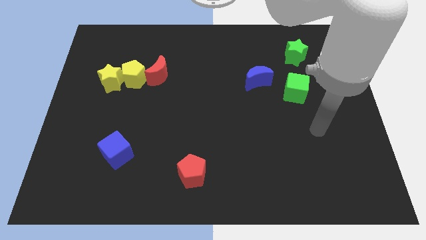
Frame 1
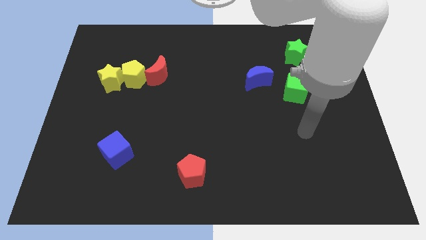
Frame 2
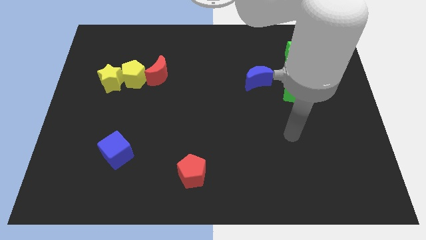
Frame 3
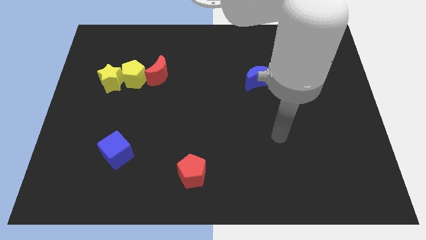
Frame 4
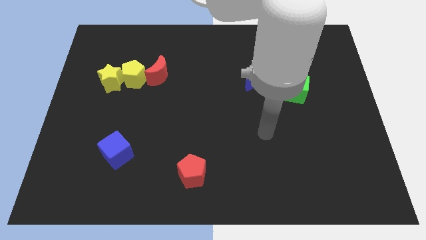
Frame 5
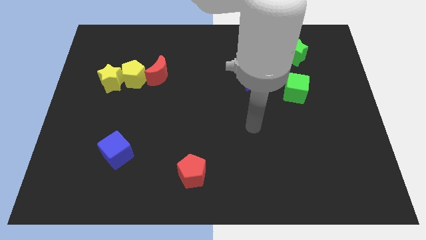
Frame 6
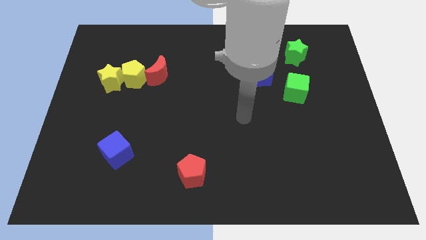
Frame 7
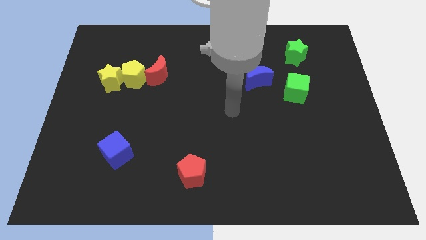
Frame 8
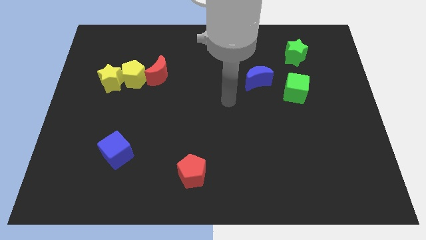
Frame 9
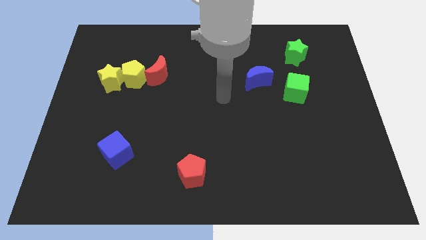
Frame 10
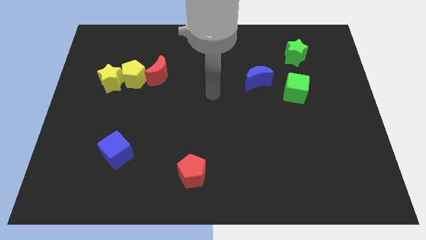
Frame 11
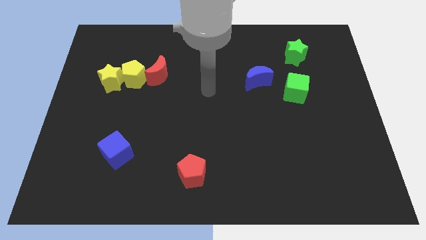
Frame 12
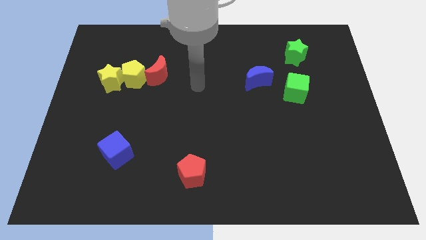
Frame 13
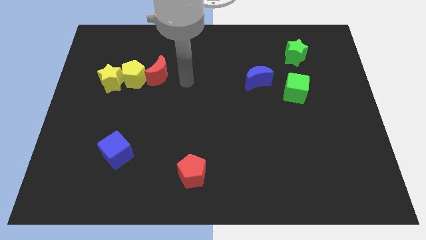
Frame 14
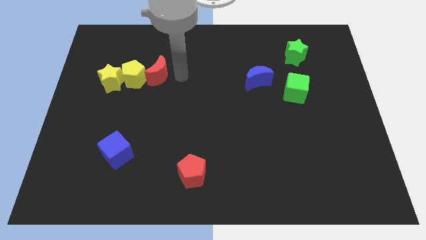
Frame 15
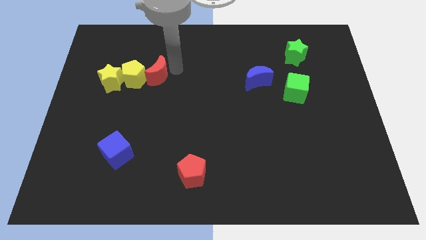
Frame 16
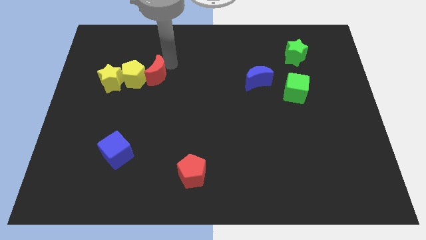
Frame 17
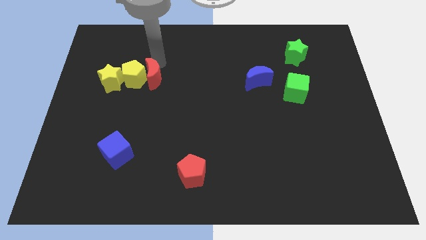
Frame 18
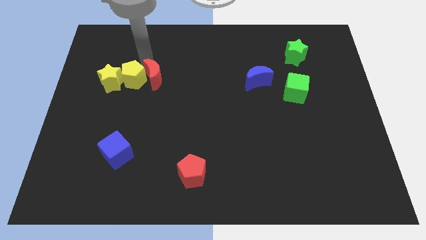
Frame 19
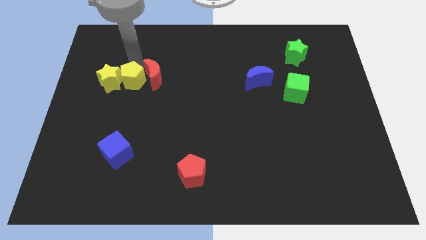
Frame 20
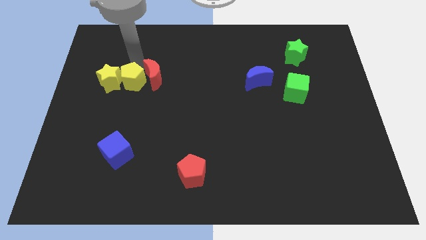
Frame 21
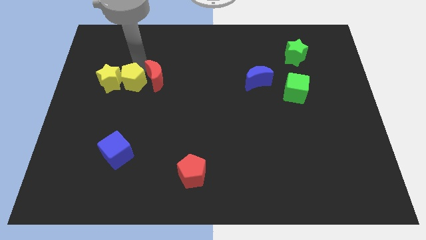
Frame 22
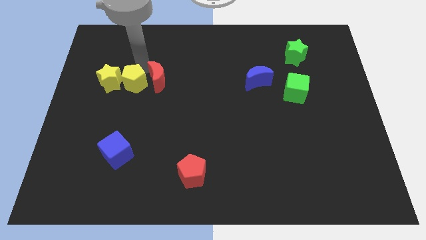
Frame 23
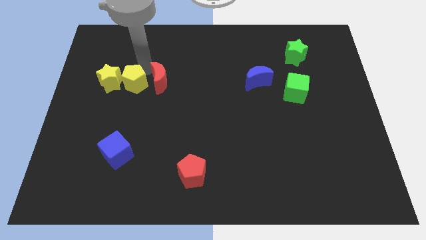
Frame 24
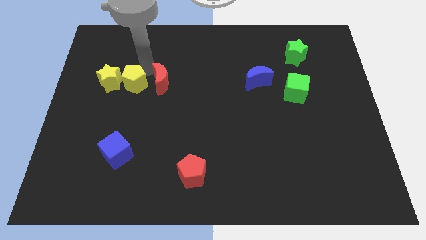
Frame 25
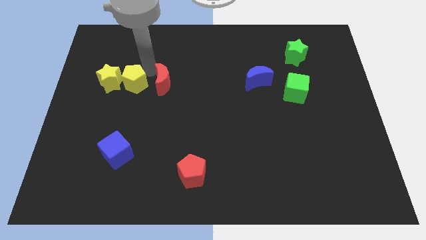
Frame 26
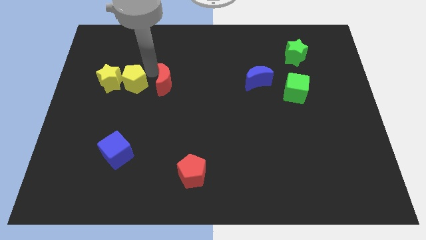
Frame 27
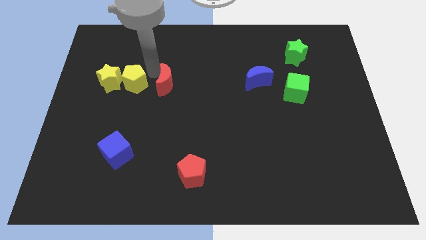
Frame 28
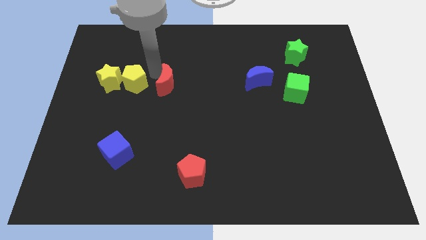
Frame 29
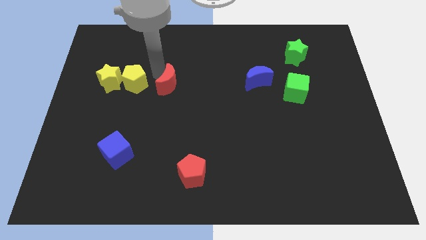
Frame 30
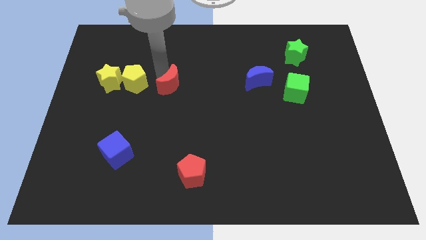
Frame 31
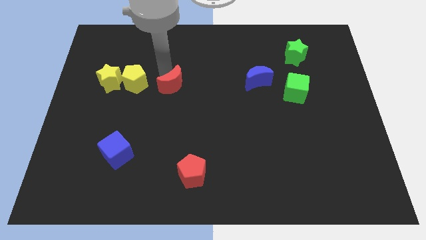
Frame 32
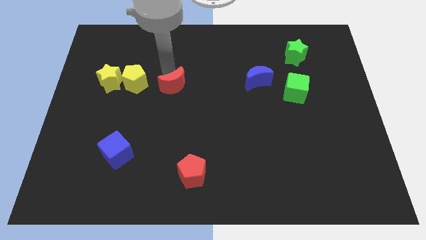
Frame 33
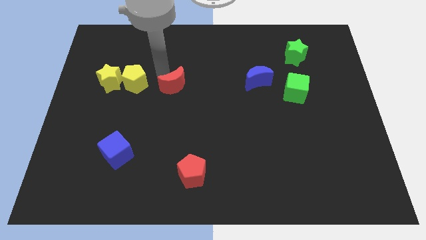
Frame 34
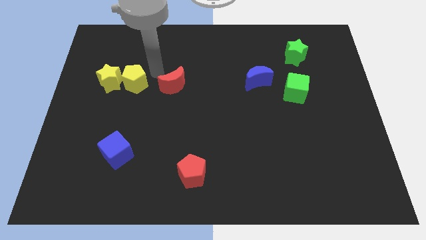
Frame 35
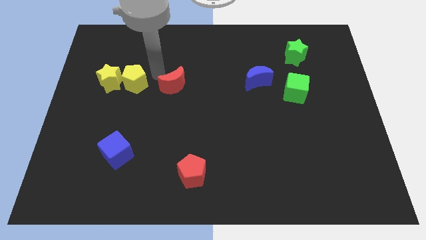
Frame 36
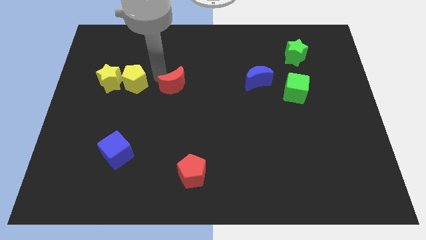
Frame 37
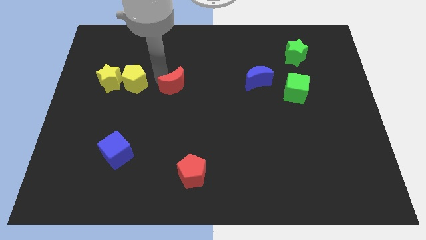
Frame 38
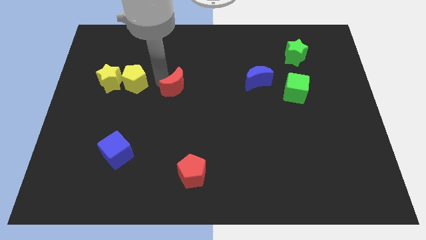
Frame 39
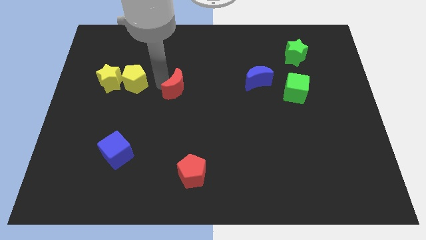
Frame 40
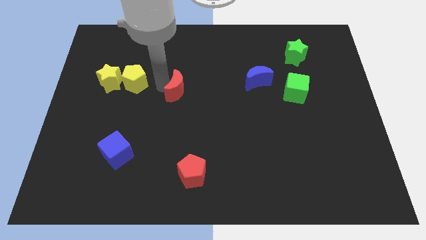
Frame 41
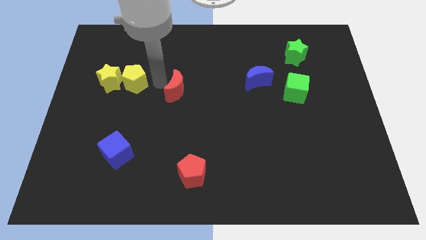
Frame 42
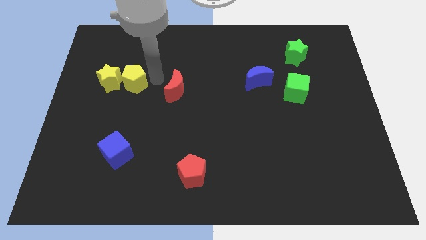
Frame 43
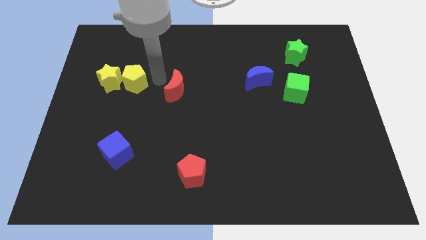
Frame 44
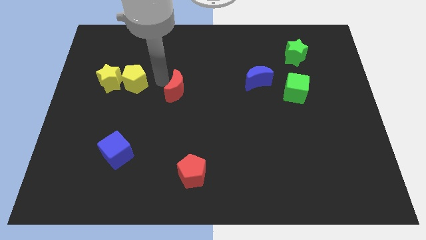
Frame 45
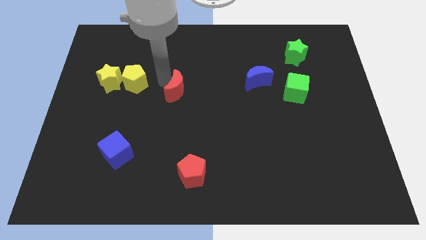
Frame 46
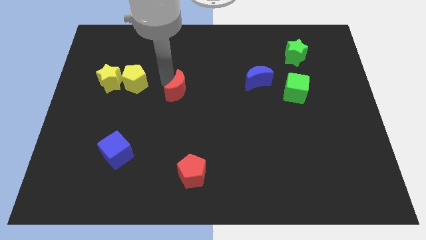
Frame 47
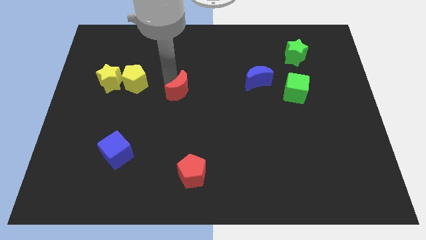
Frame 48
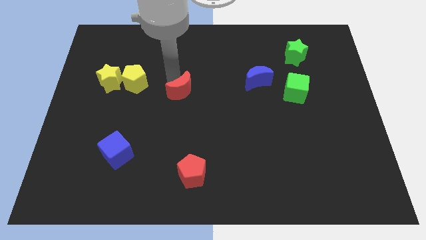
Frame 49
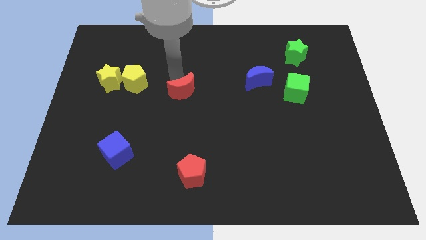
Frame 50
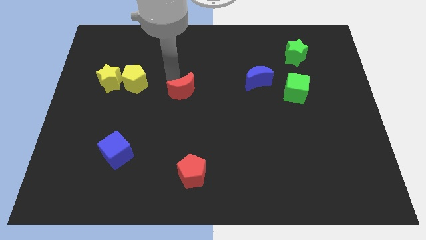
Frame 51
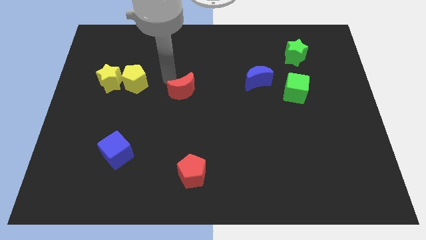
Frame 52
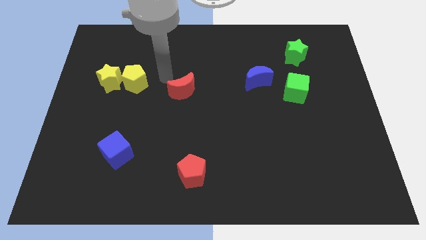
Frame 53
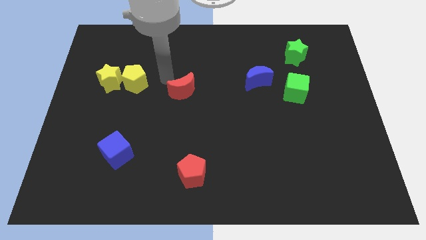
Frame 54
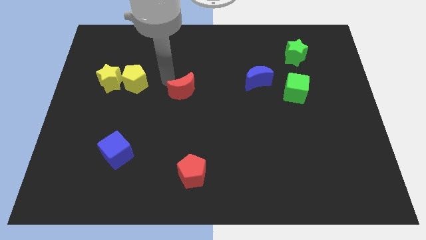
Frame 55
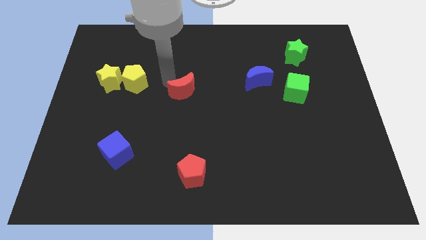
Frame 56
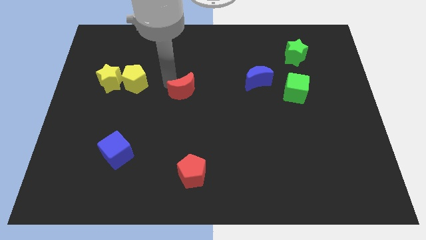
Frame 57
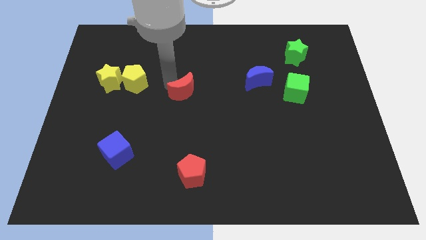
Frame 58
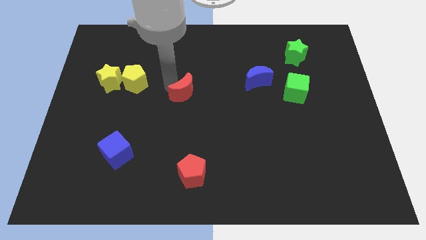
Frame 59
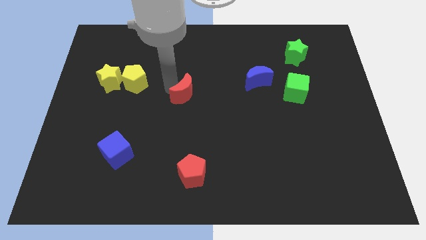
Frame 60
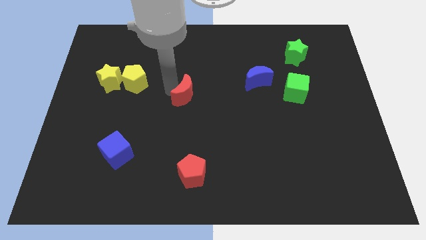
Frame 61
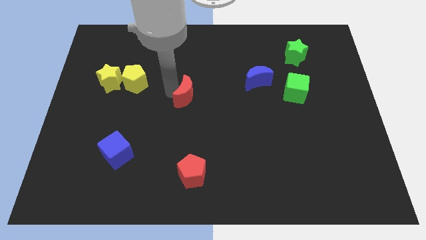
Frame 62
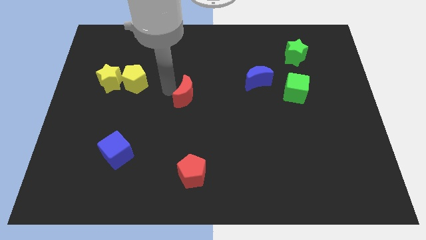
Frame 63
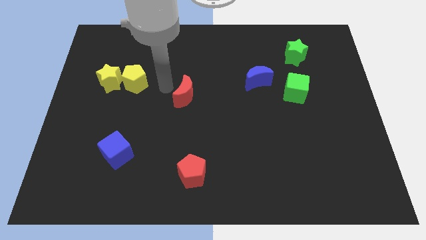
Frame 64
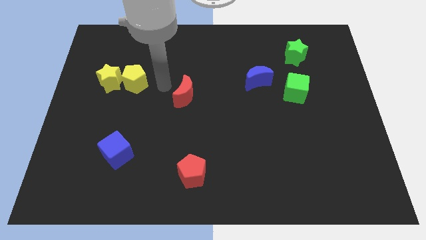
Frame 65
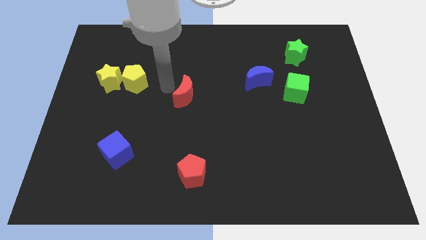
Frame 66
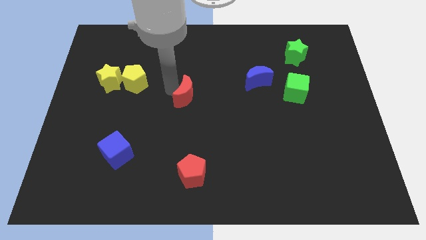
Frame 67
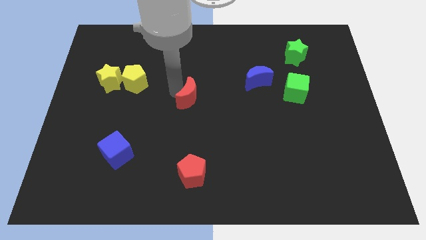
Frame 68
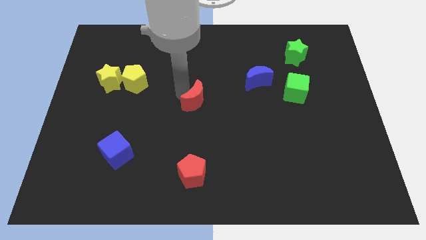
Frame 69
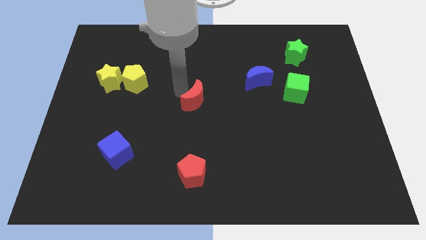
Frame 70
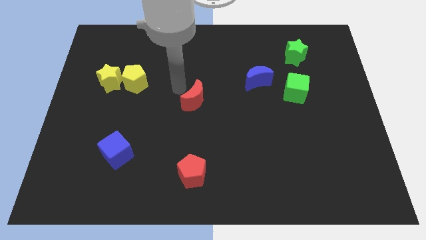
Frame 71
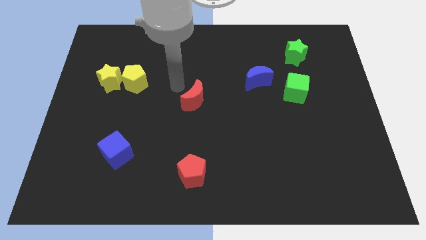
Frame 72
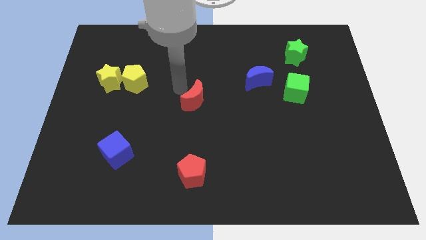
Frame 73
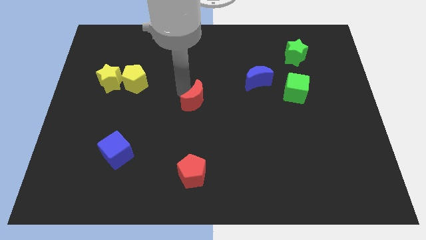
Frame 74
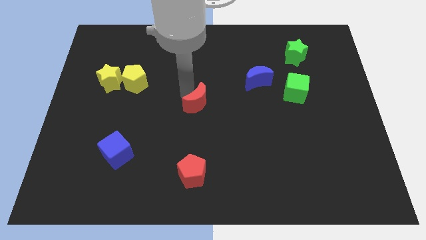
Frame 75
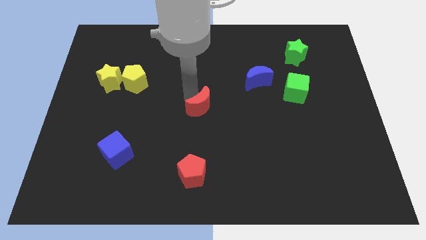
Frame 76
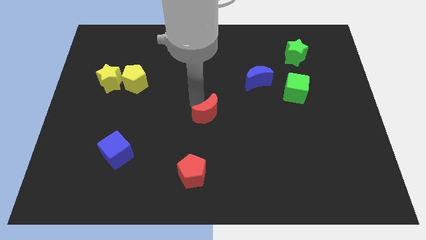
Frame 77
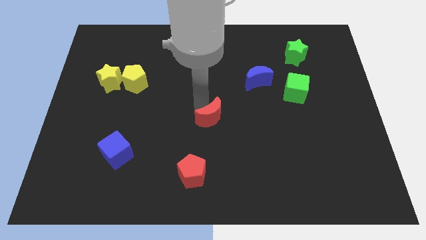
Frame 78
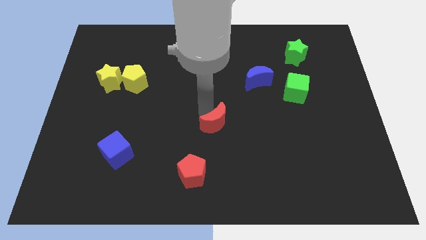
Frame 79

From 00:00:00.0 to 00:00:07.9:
move the red moon diagonally downwards and right

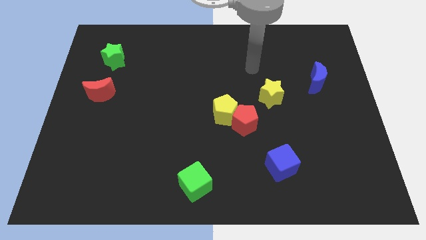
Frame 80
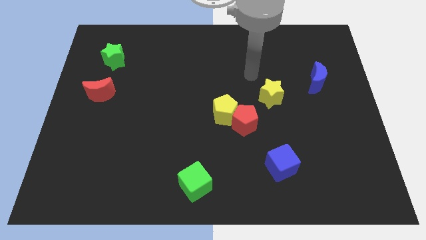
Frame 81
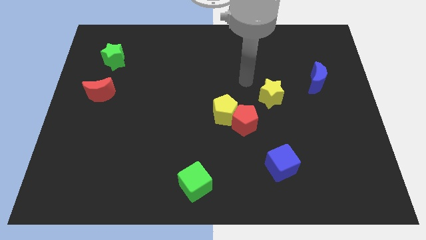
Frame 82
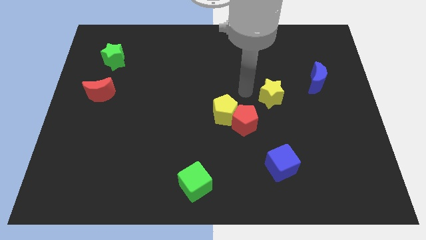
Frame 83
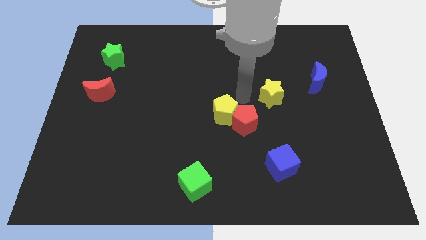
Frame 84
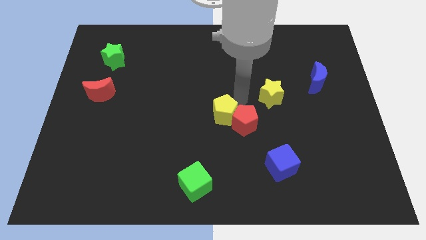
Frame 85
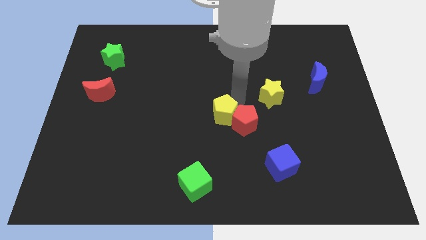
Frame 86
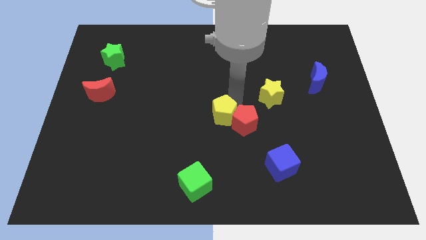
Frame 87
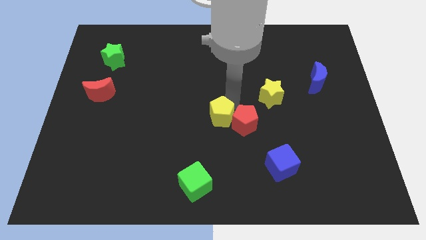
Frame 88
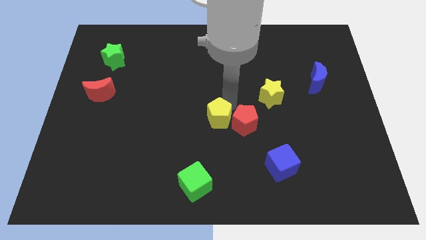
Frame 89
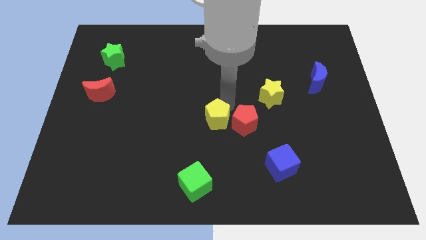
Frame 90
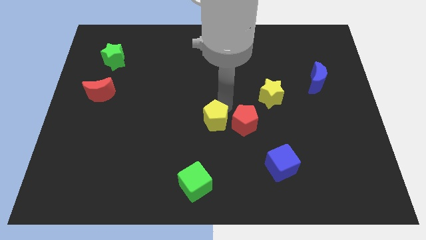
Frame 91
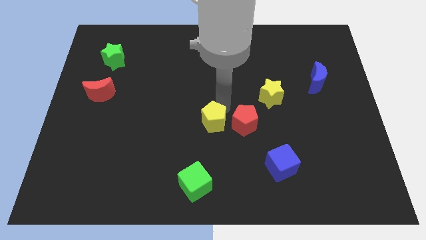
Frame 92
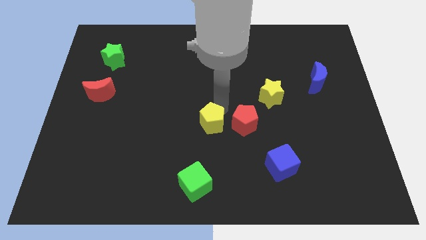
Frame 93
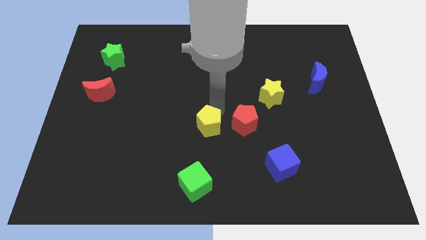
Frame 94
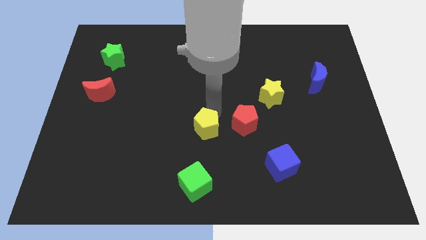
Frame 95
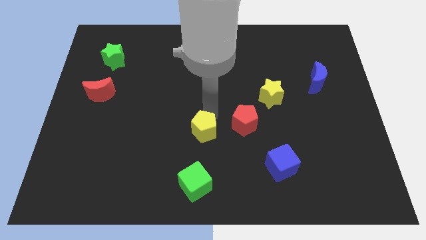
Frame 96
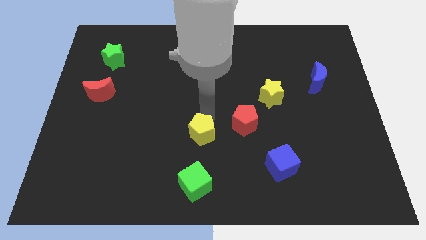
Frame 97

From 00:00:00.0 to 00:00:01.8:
slightly move the yellow pentagon downwards and left
